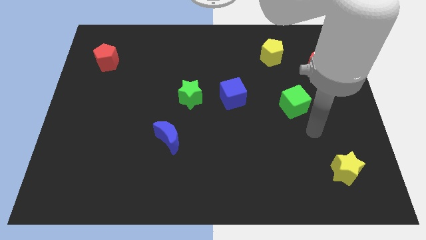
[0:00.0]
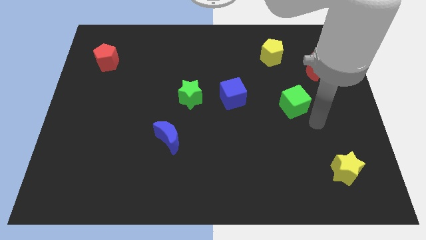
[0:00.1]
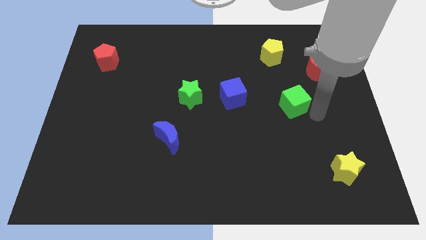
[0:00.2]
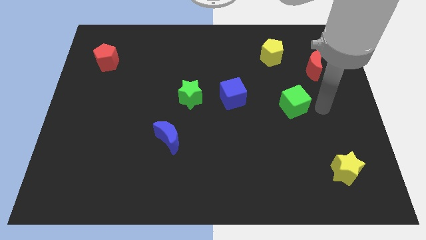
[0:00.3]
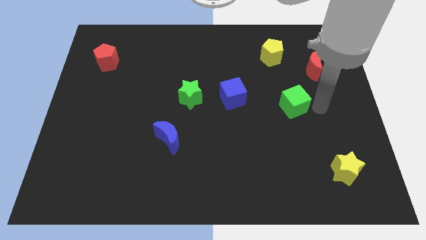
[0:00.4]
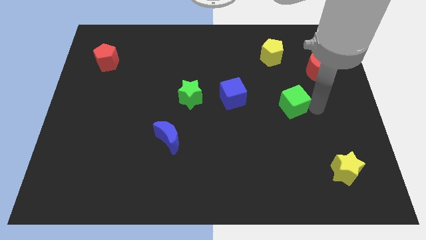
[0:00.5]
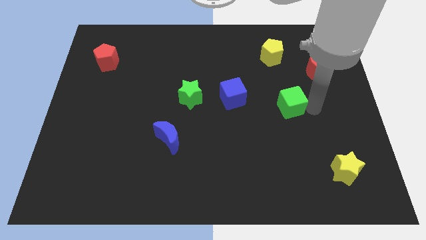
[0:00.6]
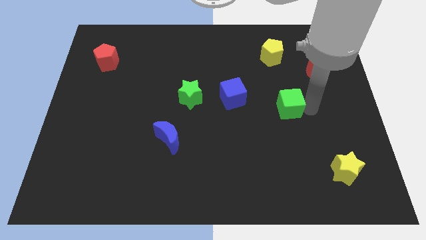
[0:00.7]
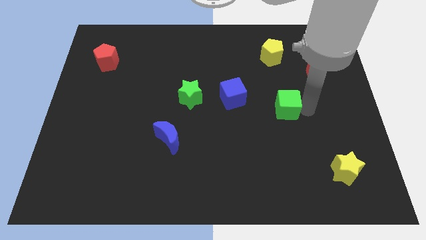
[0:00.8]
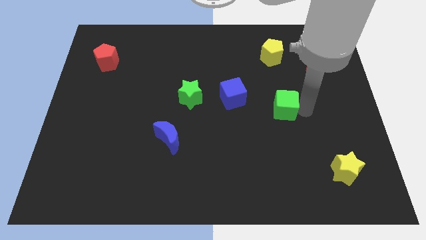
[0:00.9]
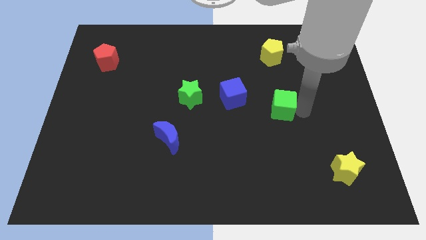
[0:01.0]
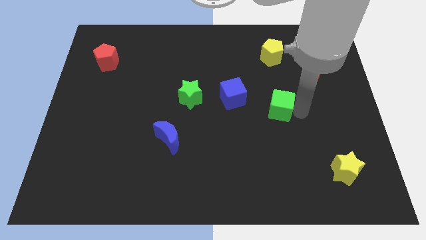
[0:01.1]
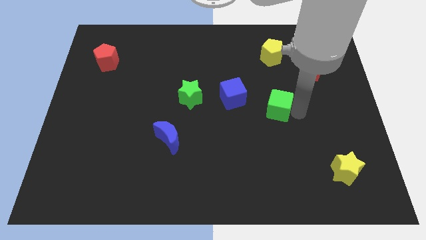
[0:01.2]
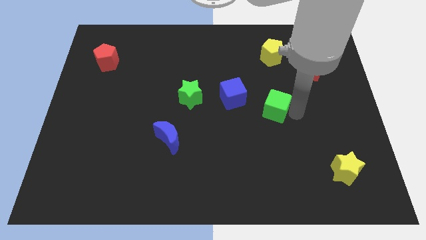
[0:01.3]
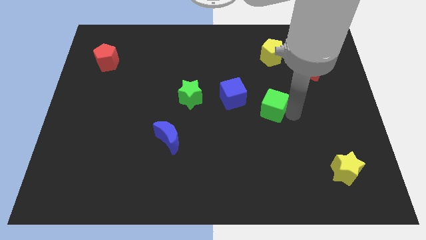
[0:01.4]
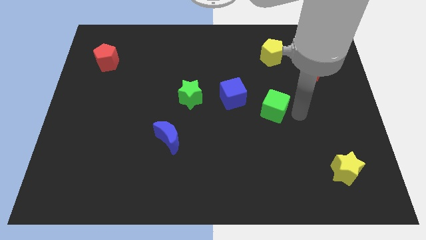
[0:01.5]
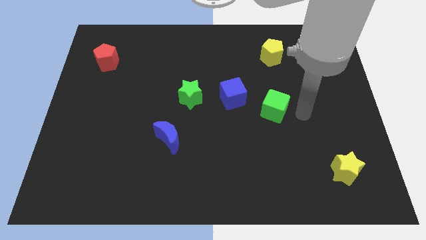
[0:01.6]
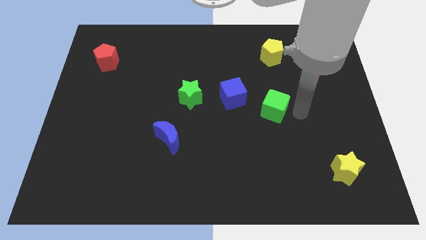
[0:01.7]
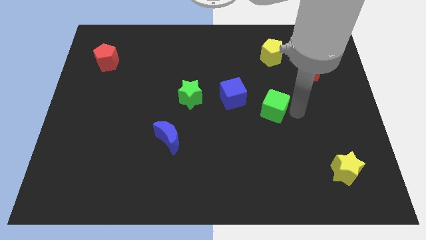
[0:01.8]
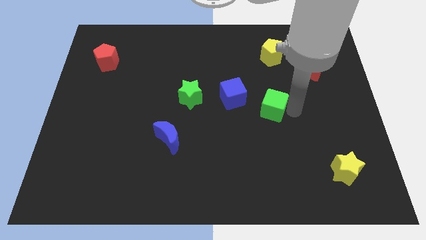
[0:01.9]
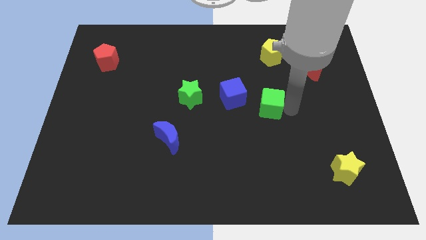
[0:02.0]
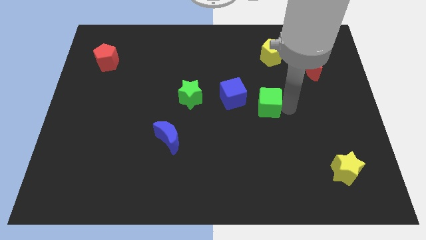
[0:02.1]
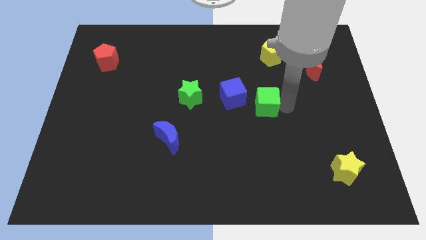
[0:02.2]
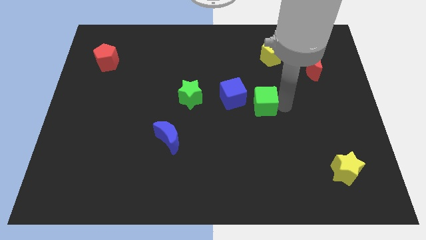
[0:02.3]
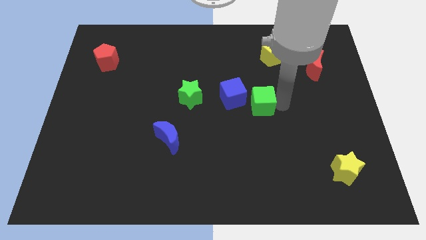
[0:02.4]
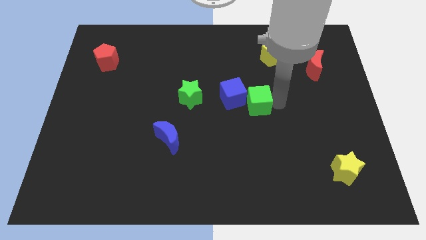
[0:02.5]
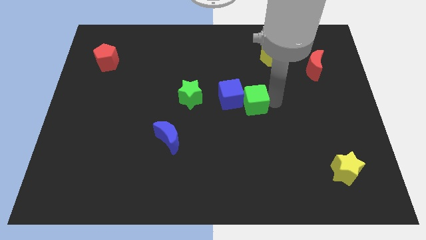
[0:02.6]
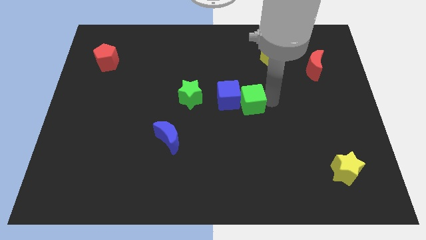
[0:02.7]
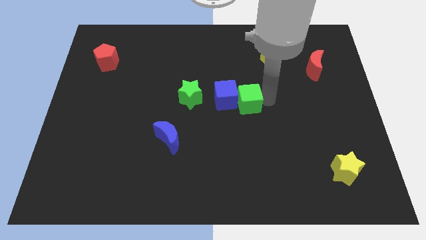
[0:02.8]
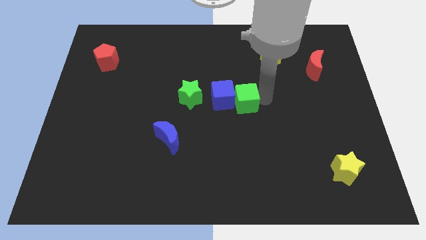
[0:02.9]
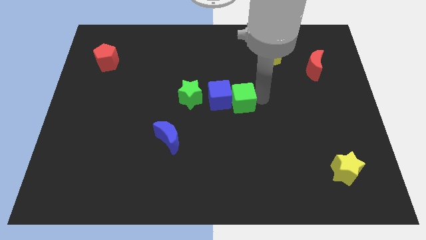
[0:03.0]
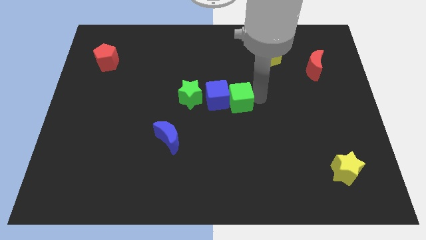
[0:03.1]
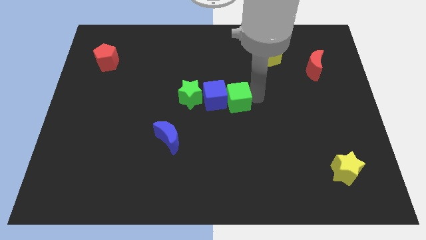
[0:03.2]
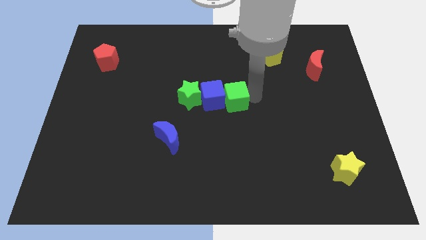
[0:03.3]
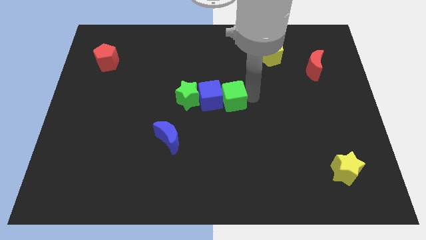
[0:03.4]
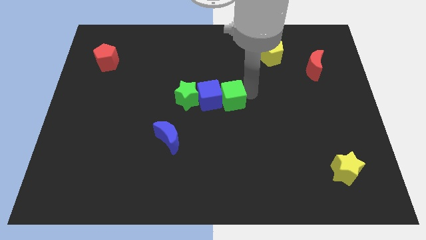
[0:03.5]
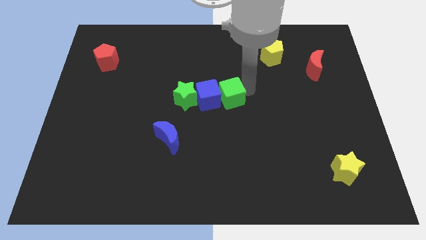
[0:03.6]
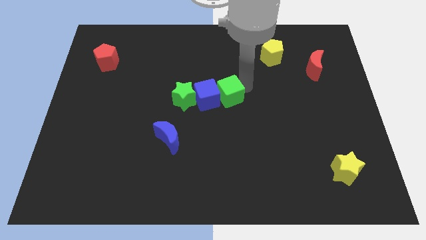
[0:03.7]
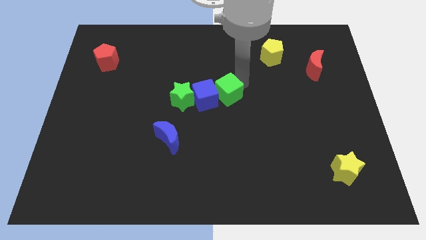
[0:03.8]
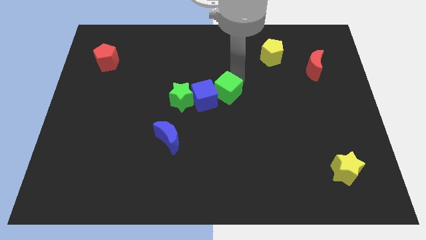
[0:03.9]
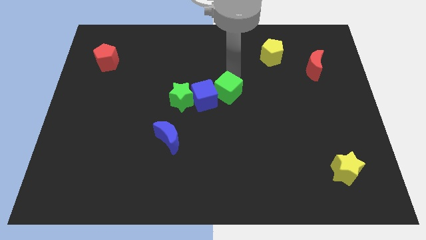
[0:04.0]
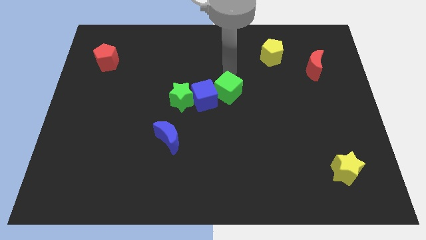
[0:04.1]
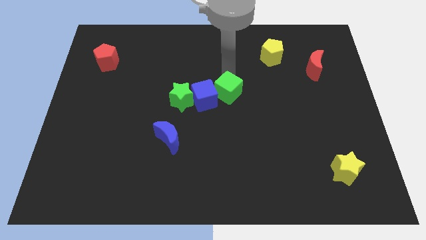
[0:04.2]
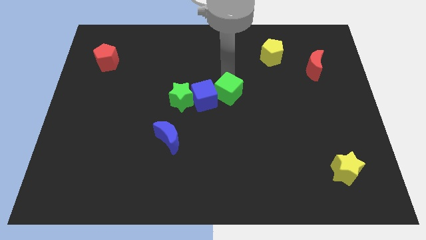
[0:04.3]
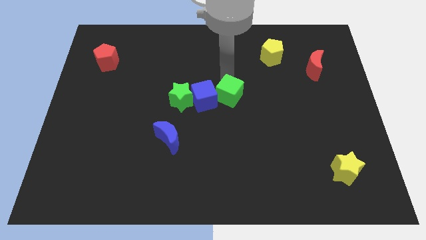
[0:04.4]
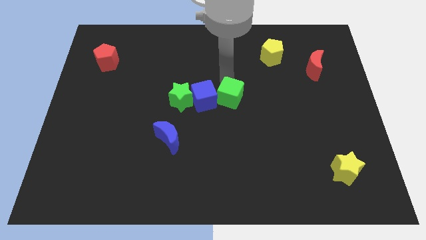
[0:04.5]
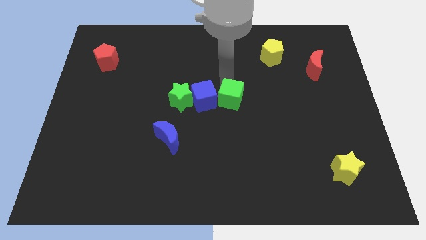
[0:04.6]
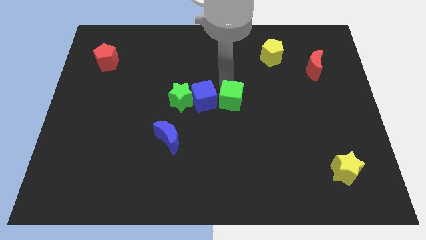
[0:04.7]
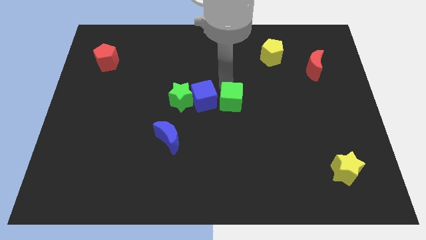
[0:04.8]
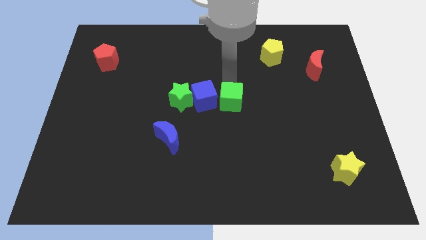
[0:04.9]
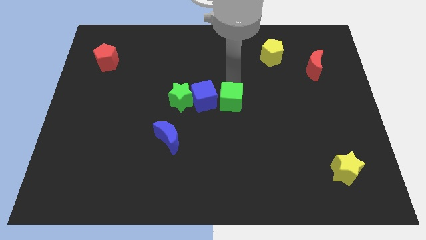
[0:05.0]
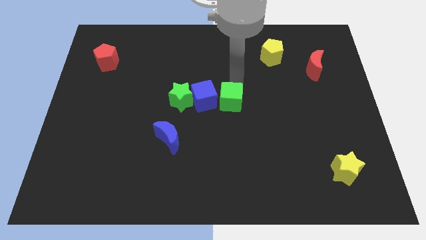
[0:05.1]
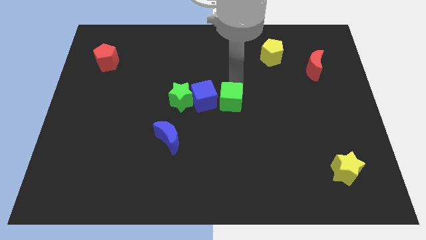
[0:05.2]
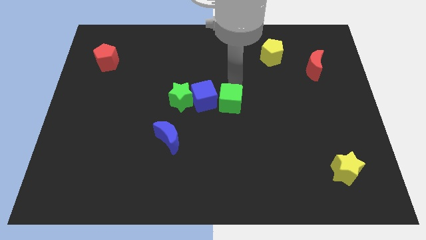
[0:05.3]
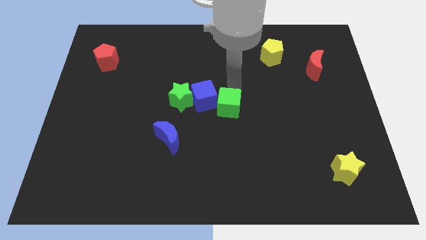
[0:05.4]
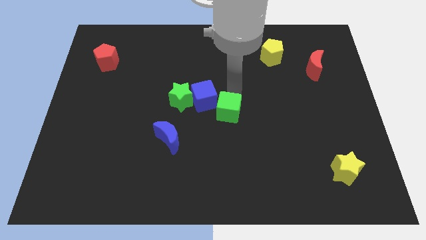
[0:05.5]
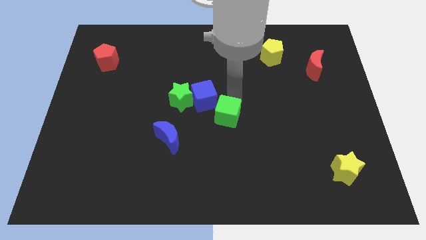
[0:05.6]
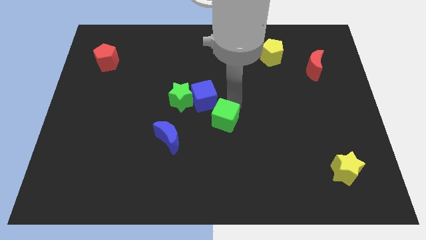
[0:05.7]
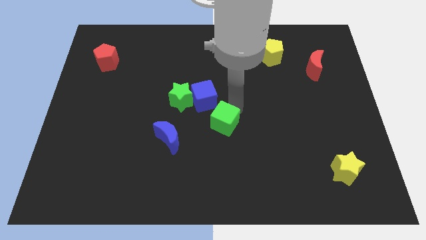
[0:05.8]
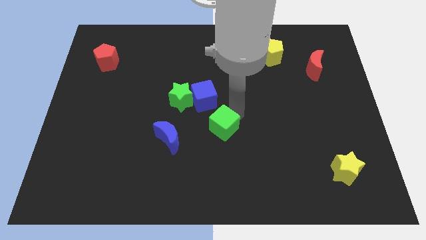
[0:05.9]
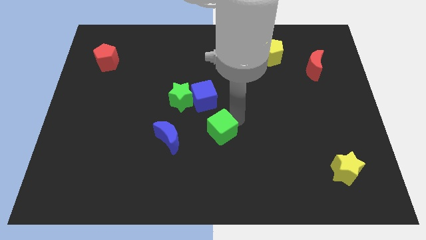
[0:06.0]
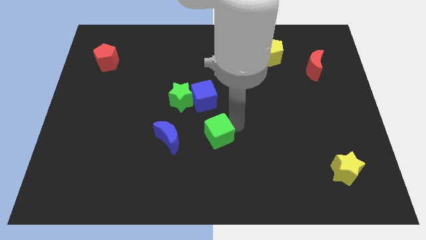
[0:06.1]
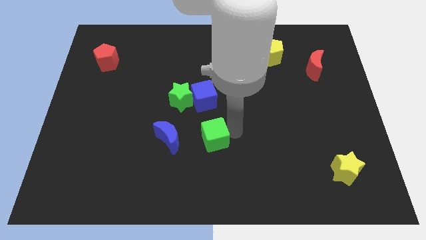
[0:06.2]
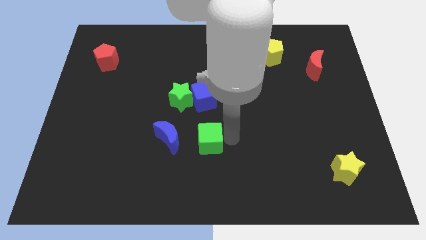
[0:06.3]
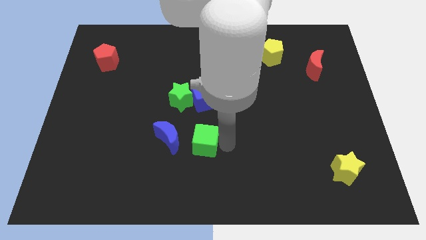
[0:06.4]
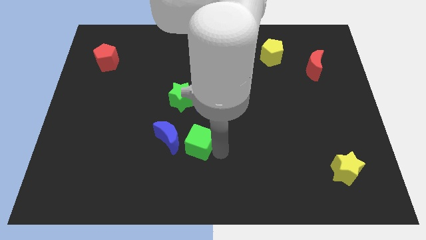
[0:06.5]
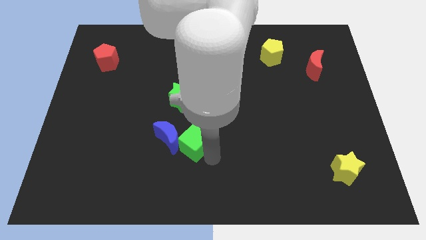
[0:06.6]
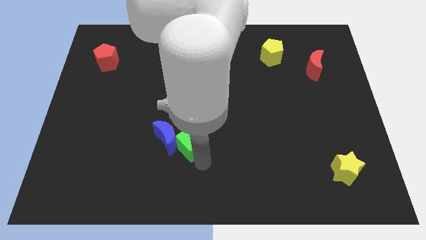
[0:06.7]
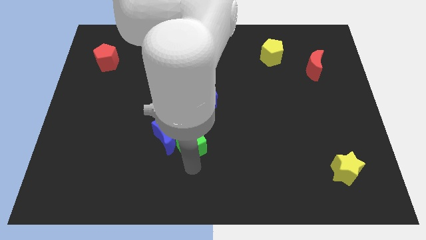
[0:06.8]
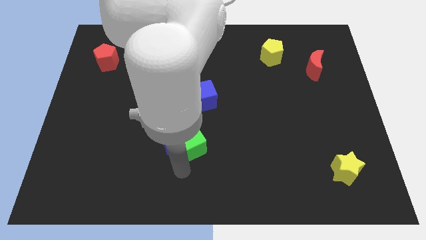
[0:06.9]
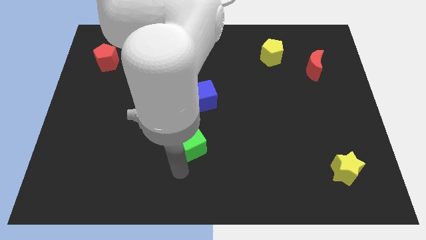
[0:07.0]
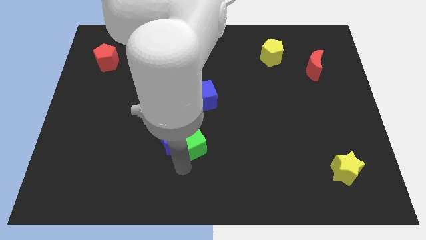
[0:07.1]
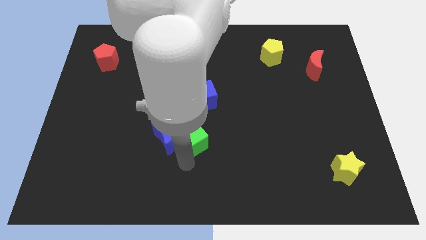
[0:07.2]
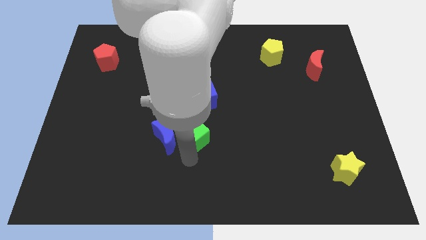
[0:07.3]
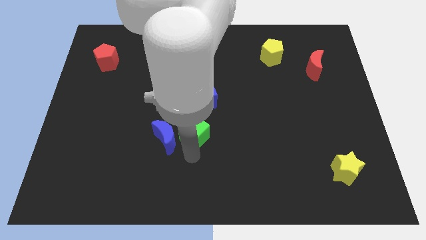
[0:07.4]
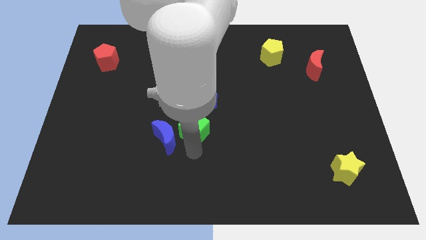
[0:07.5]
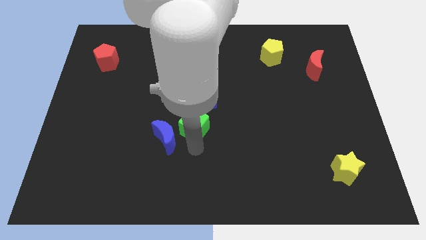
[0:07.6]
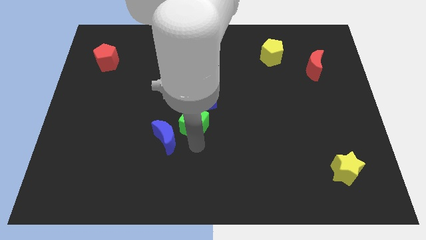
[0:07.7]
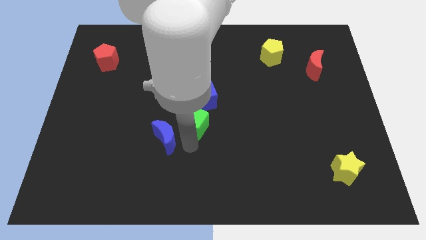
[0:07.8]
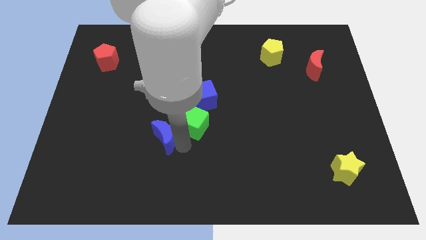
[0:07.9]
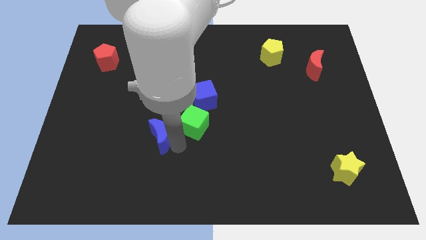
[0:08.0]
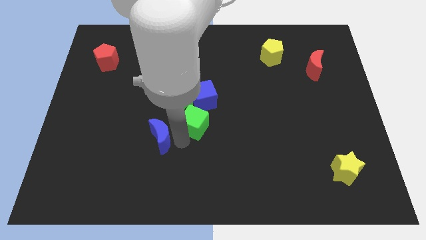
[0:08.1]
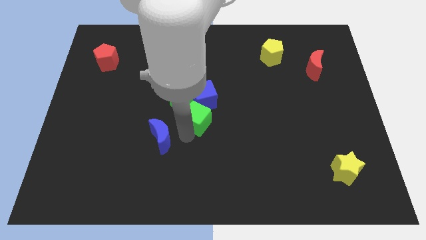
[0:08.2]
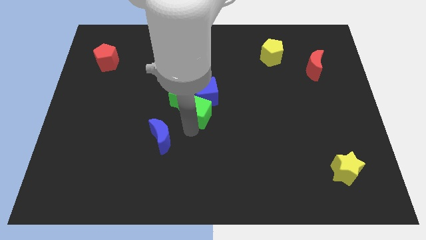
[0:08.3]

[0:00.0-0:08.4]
move the green cube next to the green star
